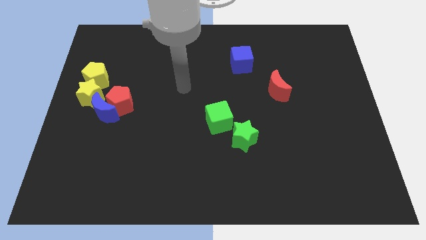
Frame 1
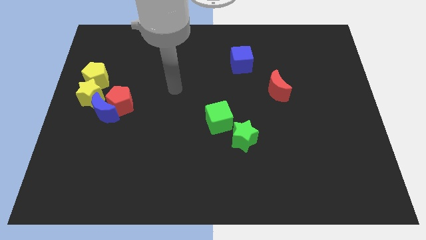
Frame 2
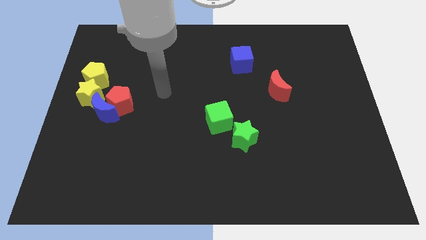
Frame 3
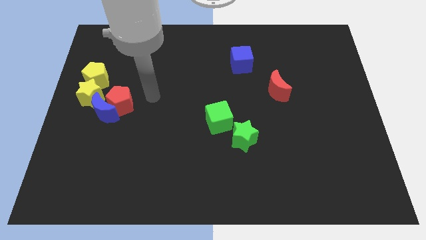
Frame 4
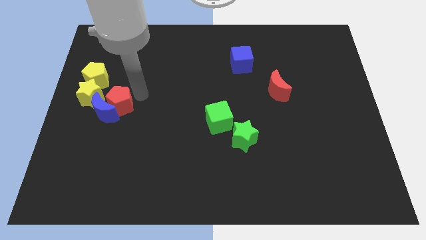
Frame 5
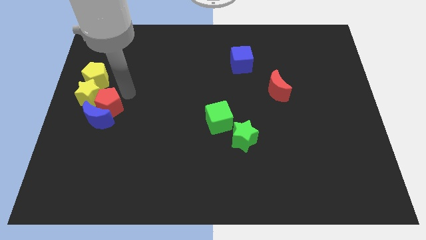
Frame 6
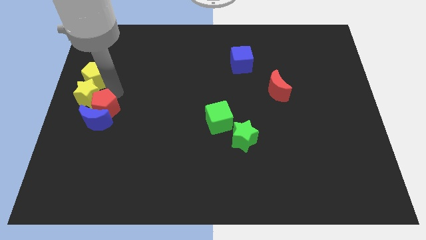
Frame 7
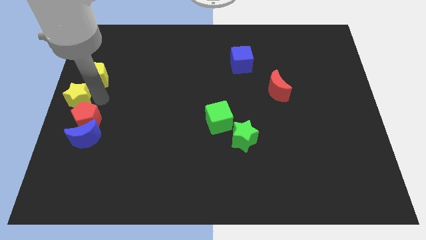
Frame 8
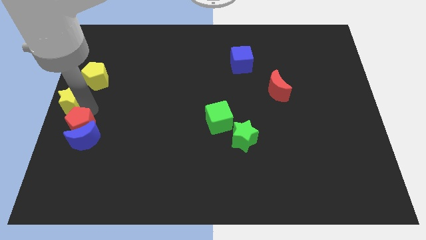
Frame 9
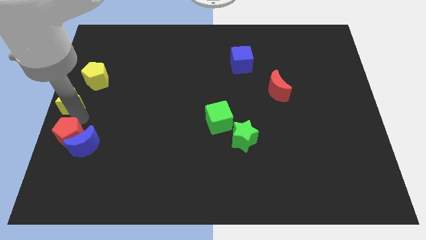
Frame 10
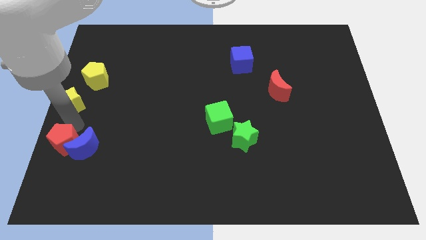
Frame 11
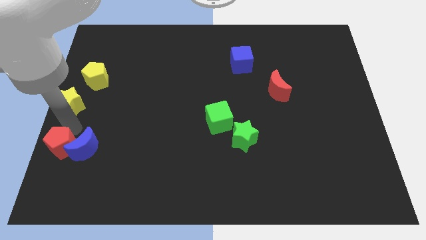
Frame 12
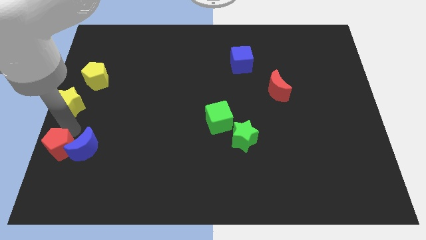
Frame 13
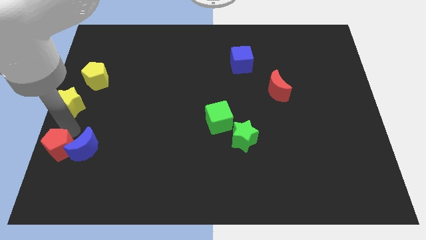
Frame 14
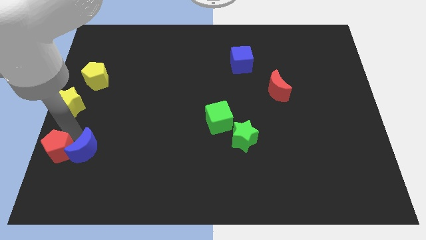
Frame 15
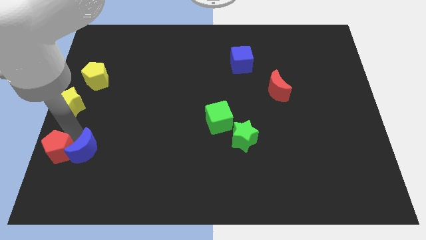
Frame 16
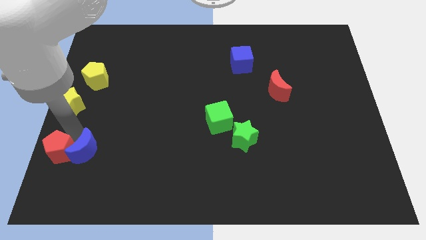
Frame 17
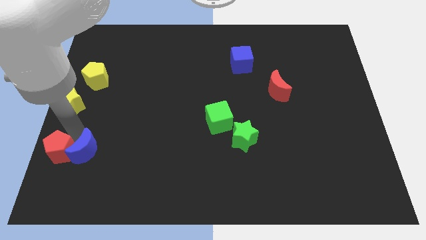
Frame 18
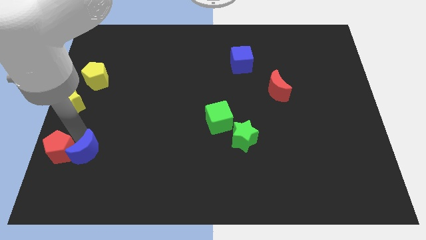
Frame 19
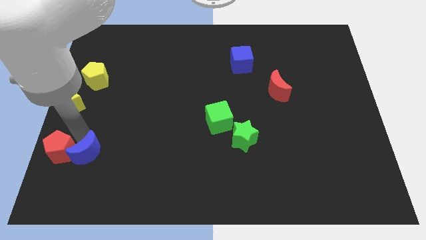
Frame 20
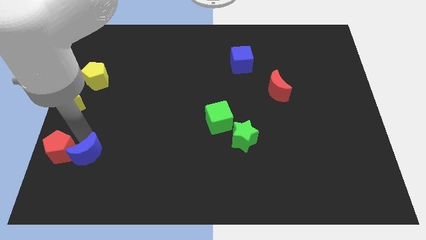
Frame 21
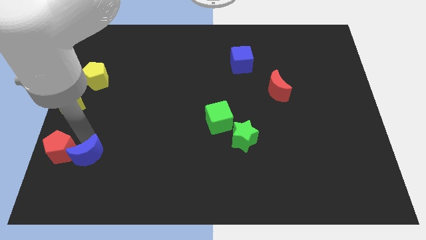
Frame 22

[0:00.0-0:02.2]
separate the blue moon from the red pentagon and yellow star

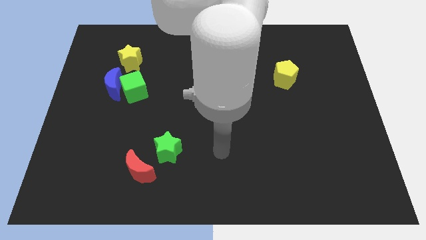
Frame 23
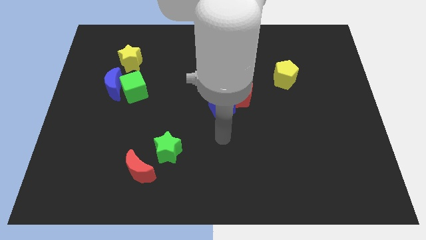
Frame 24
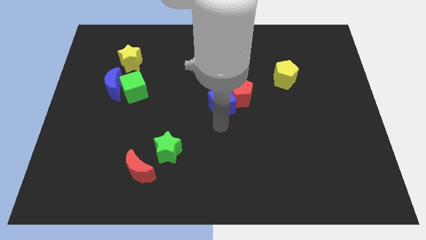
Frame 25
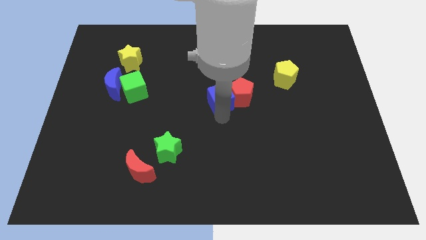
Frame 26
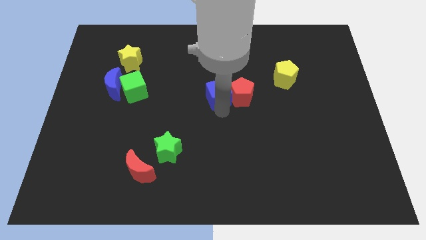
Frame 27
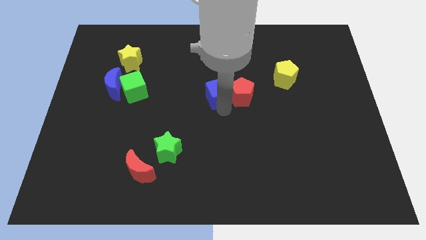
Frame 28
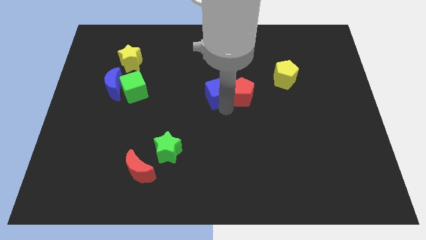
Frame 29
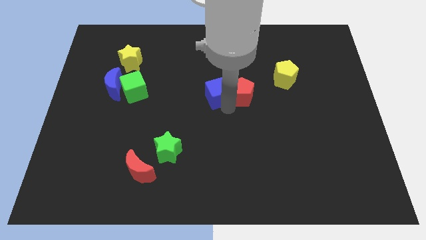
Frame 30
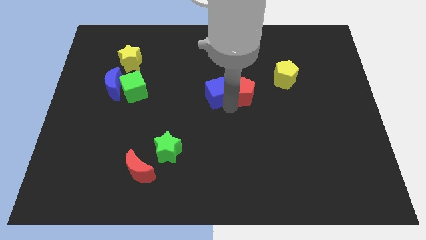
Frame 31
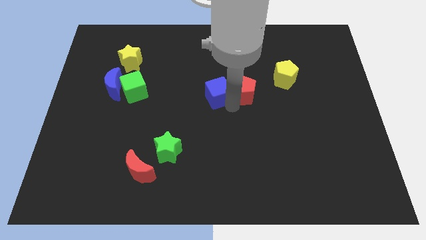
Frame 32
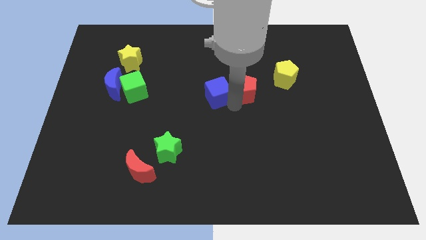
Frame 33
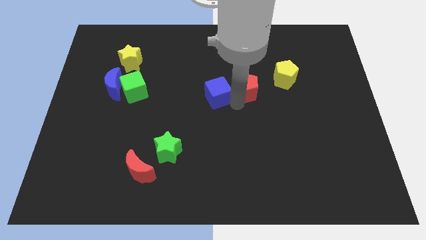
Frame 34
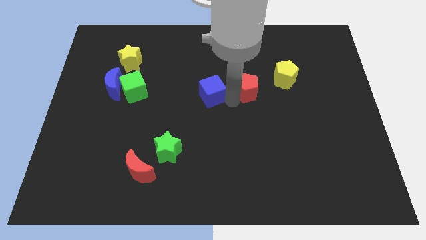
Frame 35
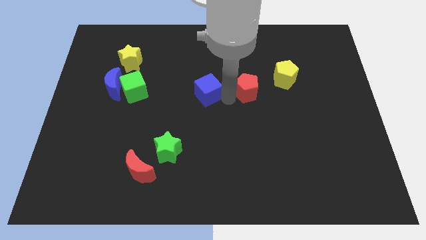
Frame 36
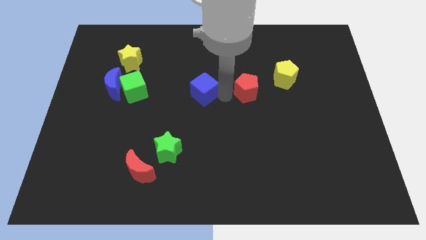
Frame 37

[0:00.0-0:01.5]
pull the red pentagon apart from the blue cube

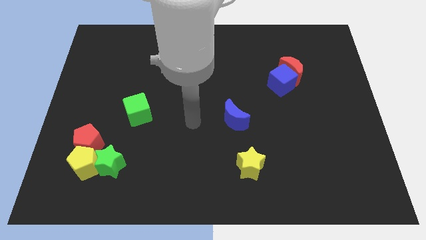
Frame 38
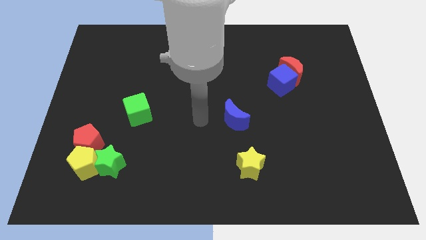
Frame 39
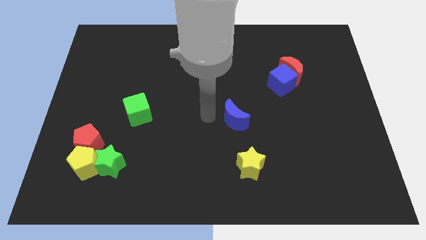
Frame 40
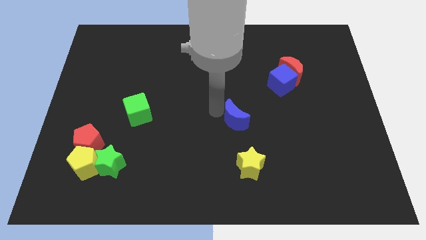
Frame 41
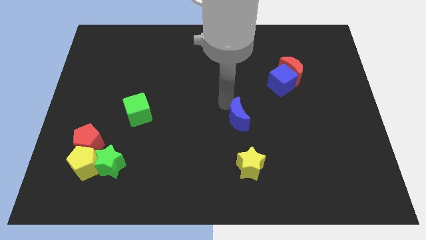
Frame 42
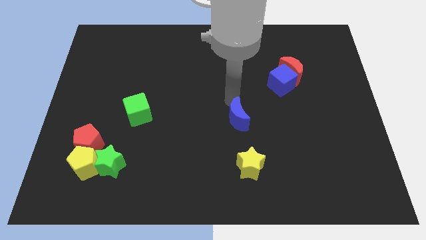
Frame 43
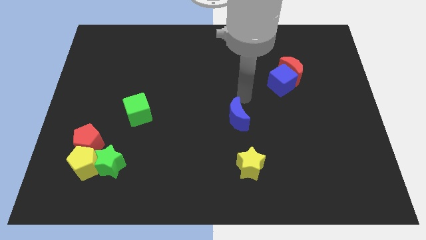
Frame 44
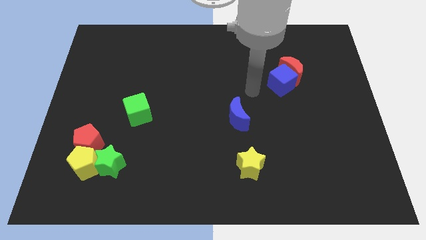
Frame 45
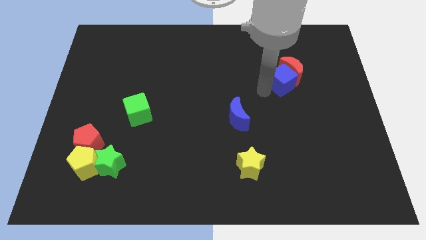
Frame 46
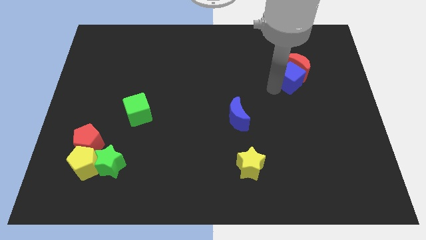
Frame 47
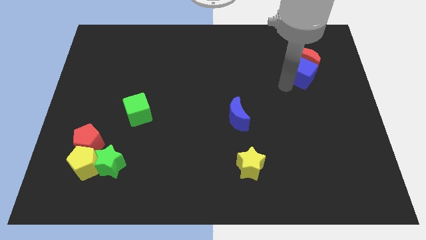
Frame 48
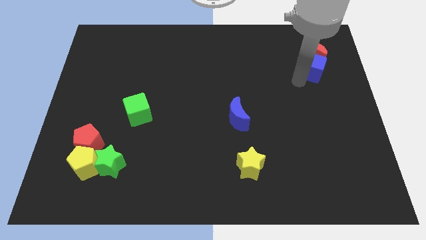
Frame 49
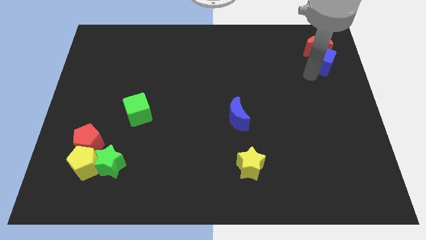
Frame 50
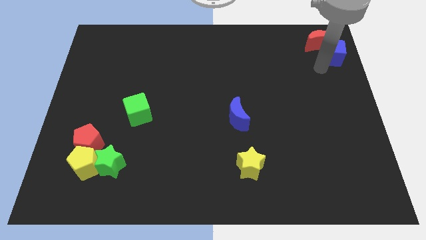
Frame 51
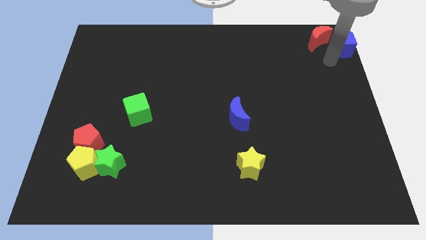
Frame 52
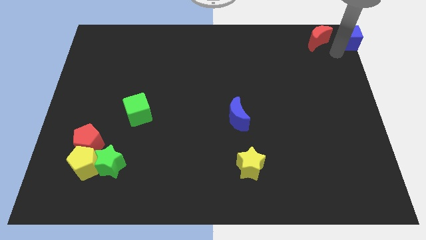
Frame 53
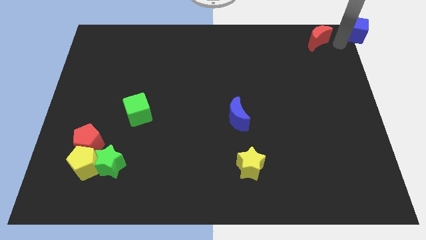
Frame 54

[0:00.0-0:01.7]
pull the red moon apart from the blue cube

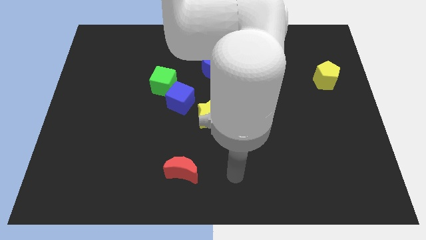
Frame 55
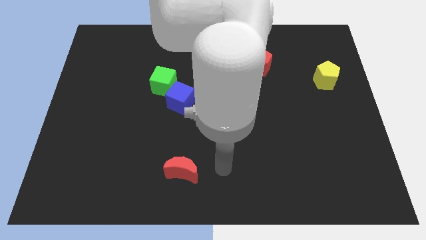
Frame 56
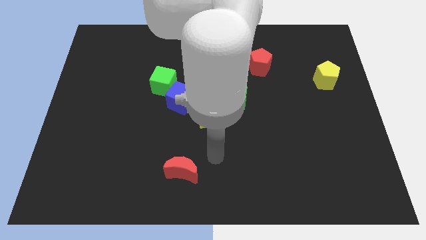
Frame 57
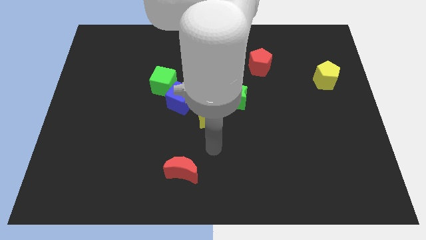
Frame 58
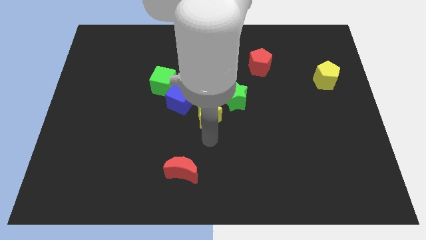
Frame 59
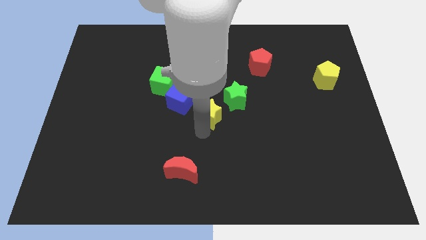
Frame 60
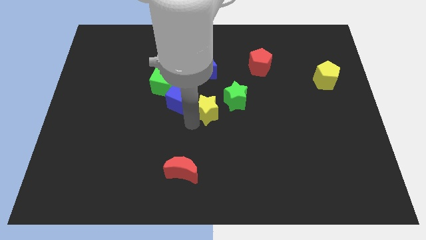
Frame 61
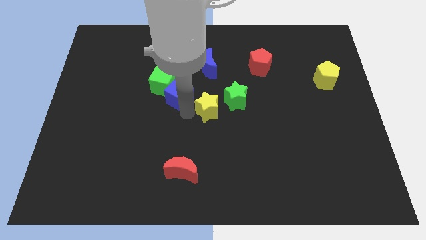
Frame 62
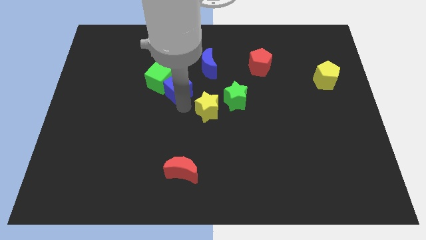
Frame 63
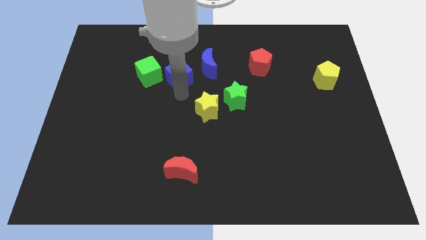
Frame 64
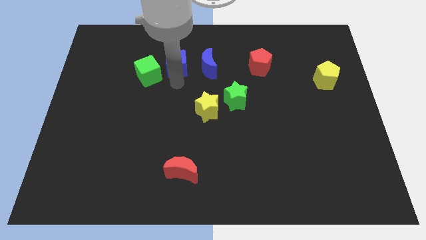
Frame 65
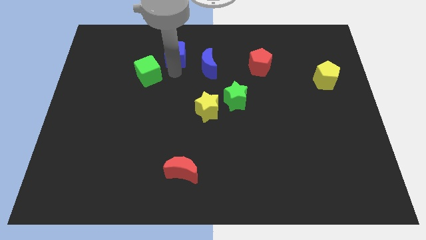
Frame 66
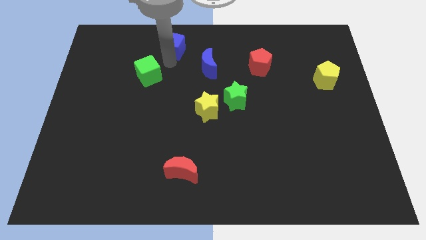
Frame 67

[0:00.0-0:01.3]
separate the green cube from the blue cube

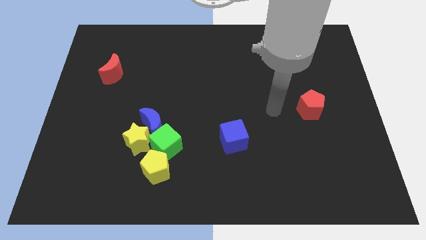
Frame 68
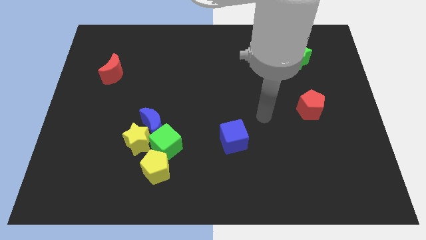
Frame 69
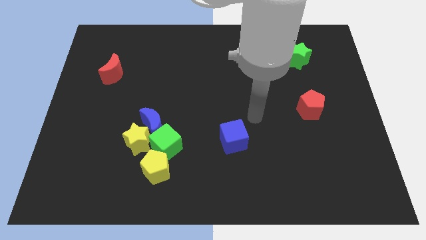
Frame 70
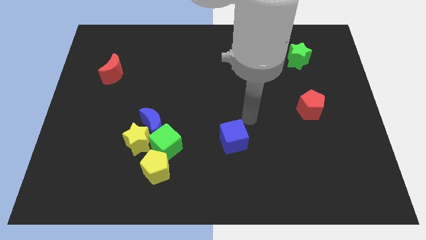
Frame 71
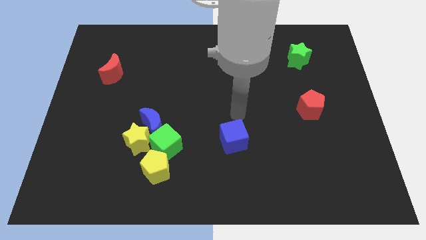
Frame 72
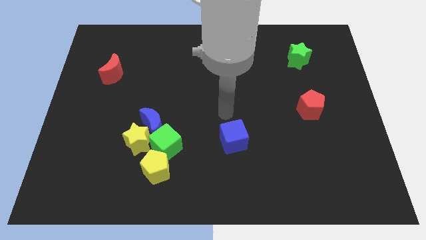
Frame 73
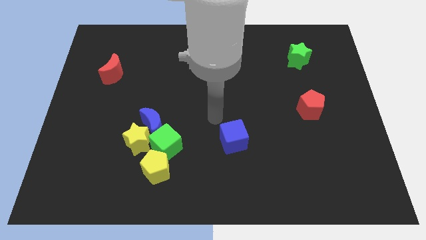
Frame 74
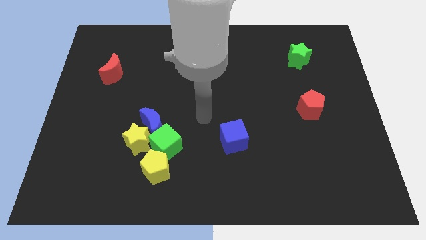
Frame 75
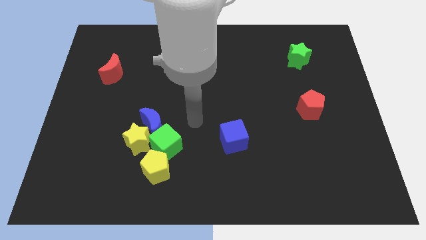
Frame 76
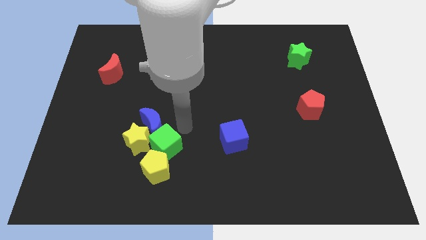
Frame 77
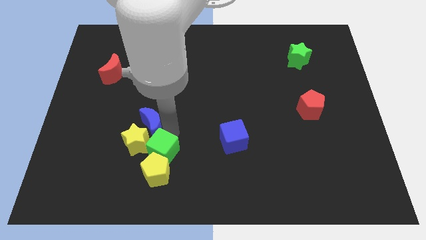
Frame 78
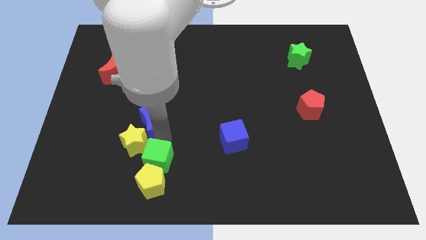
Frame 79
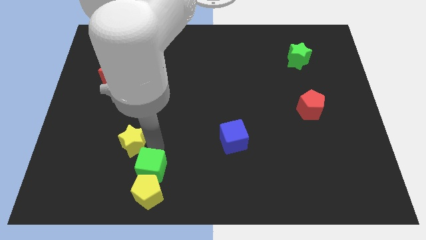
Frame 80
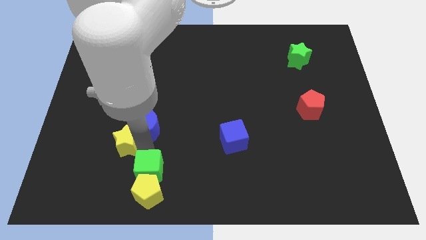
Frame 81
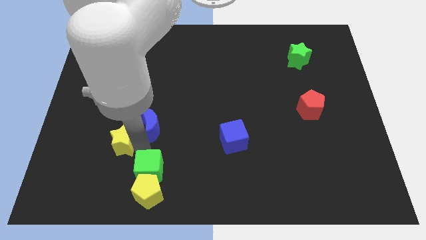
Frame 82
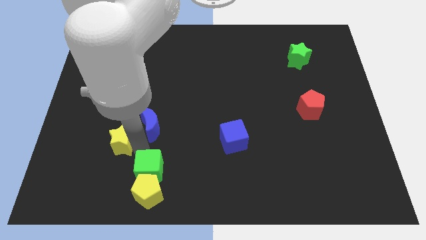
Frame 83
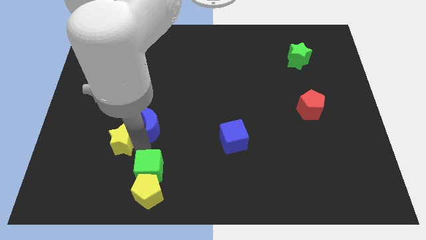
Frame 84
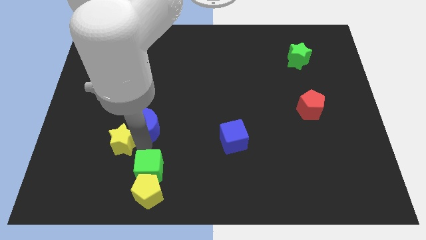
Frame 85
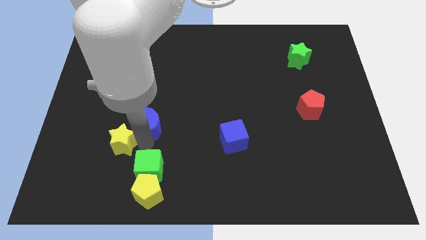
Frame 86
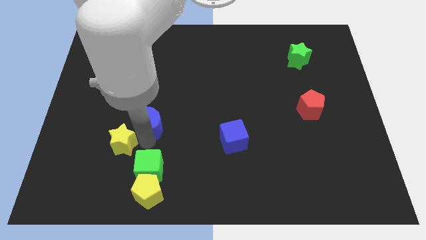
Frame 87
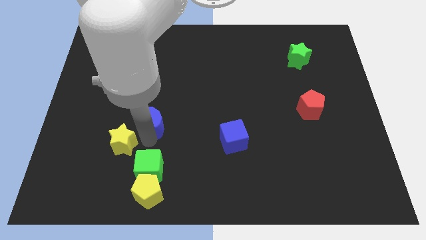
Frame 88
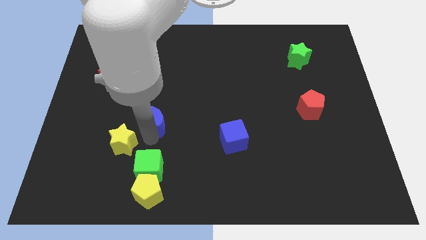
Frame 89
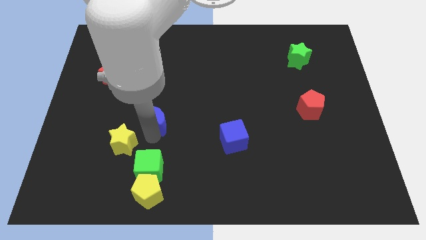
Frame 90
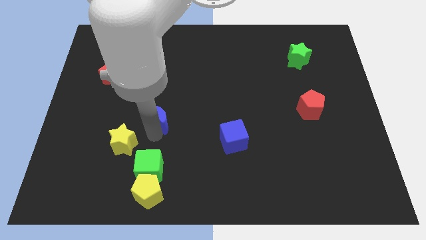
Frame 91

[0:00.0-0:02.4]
separate the blue moon from the yellow star and green cube
